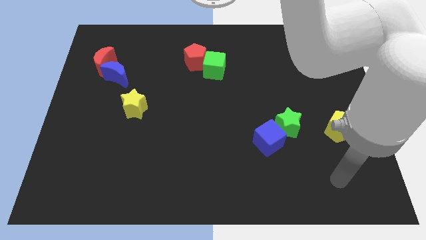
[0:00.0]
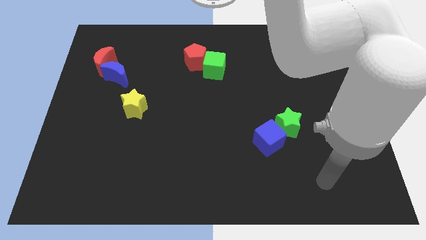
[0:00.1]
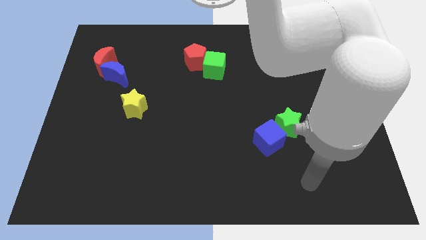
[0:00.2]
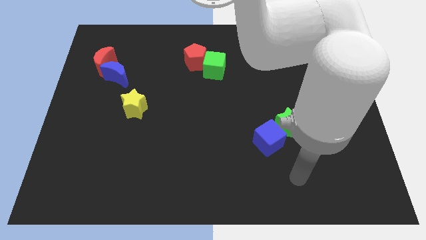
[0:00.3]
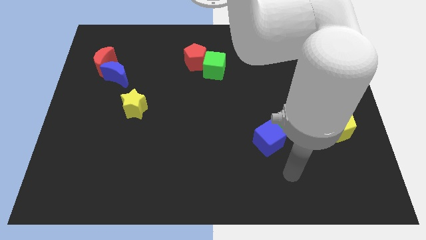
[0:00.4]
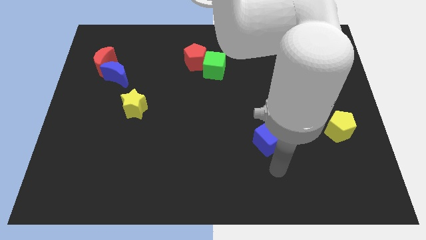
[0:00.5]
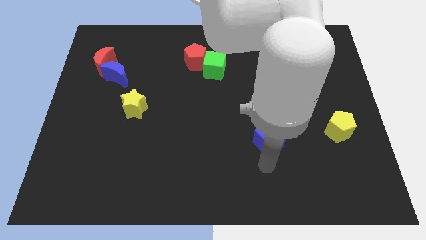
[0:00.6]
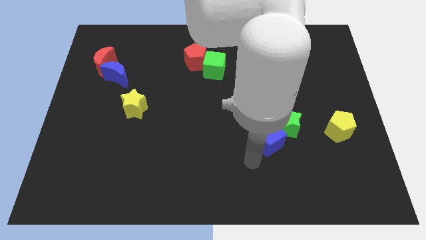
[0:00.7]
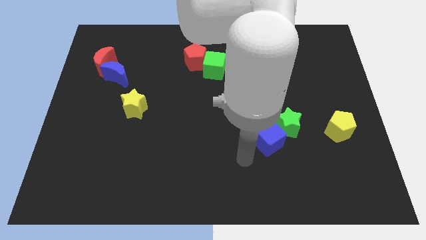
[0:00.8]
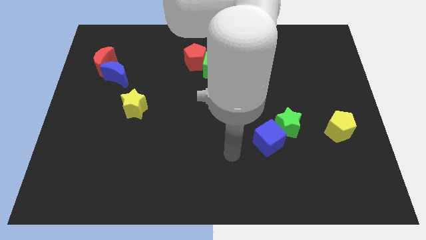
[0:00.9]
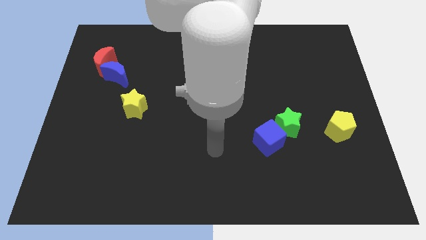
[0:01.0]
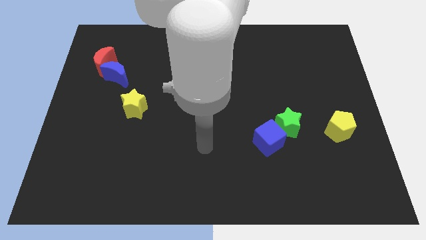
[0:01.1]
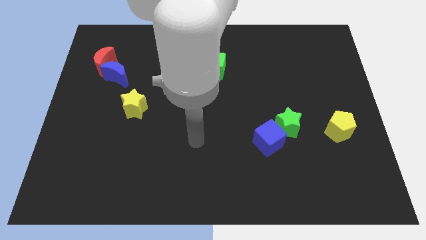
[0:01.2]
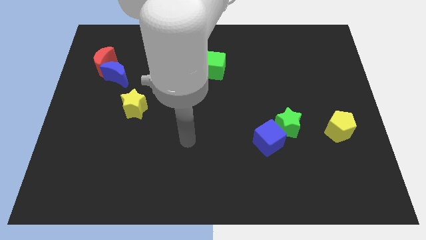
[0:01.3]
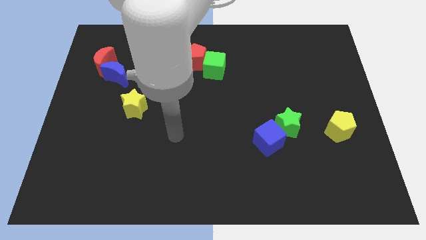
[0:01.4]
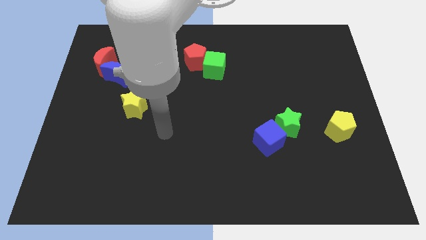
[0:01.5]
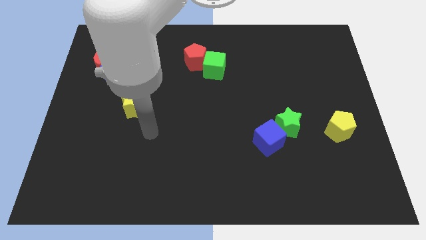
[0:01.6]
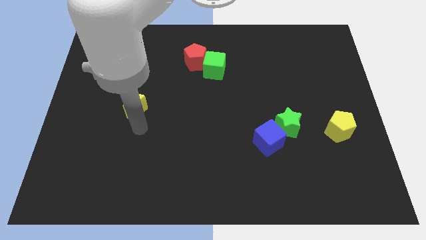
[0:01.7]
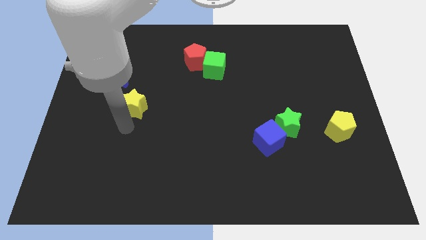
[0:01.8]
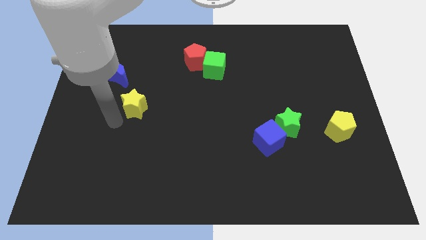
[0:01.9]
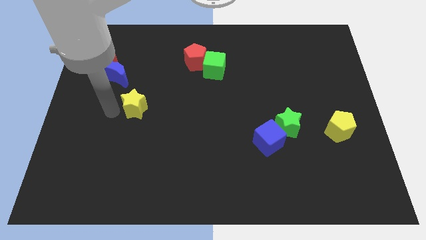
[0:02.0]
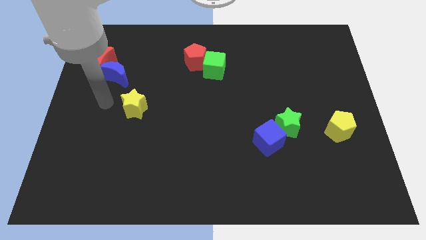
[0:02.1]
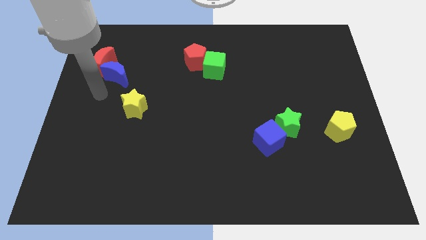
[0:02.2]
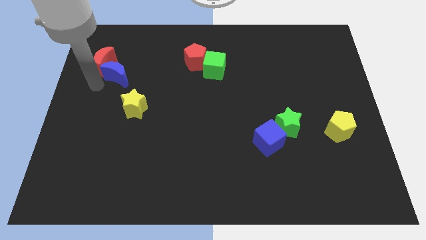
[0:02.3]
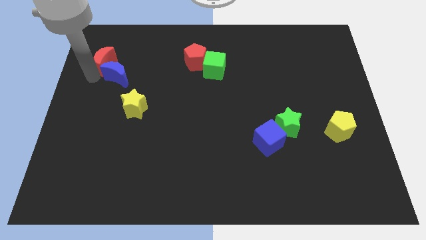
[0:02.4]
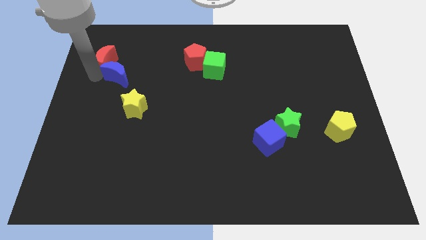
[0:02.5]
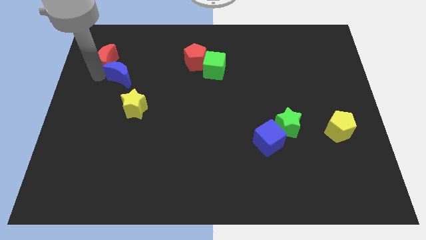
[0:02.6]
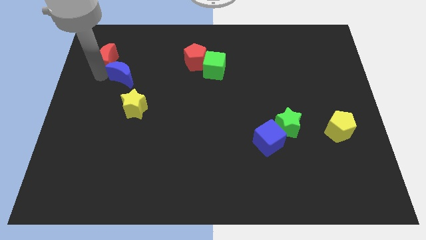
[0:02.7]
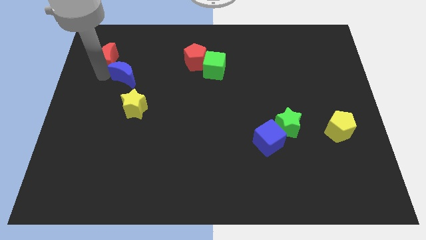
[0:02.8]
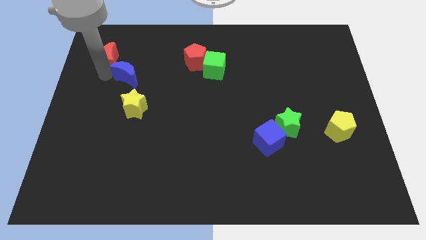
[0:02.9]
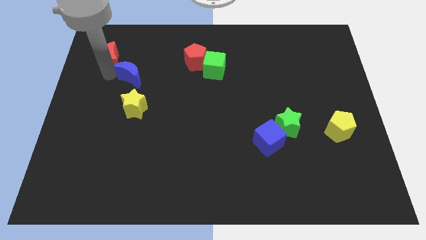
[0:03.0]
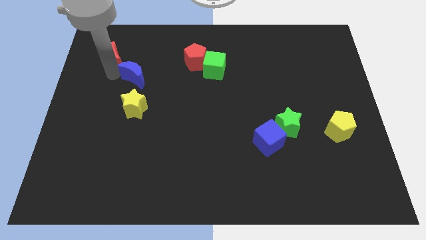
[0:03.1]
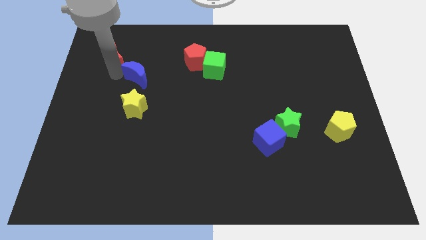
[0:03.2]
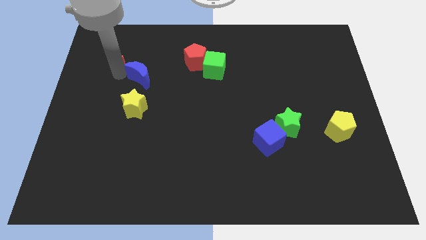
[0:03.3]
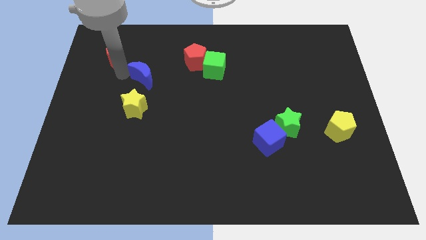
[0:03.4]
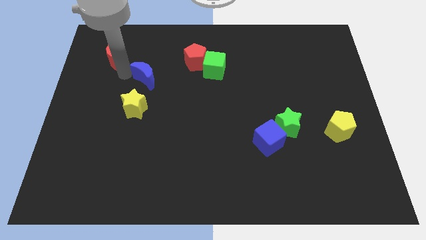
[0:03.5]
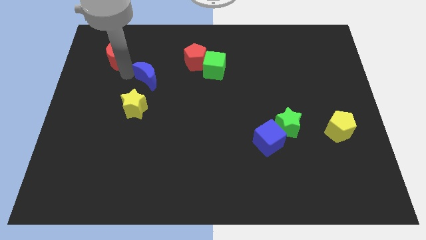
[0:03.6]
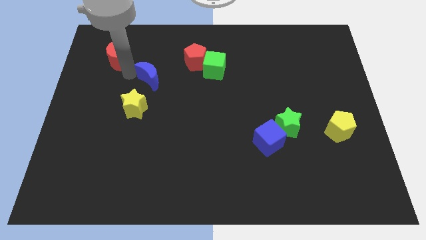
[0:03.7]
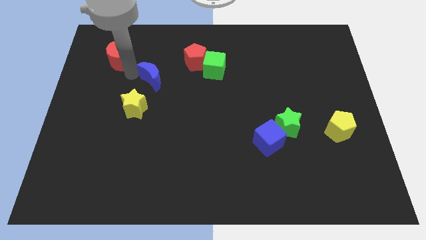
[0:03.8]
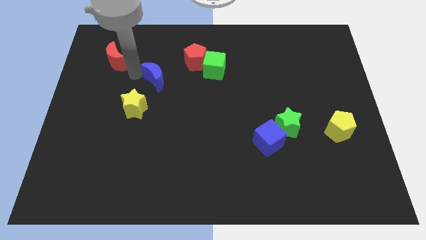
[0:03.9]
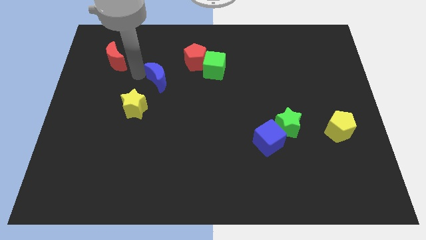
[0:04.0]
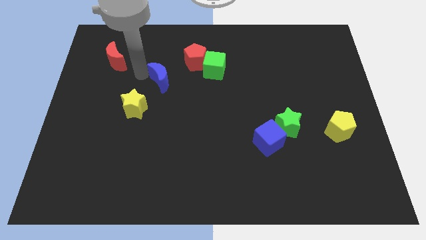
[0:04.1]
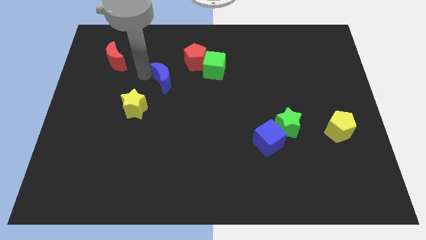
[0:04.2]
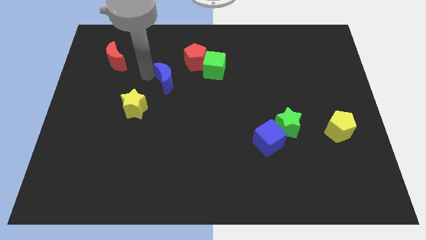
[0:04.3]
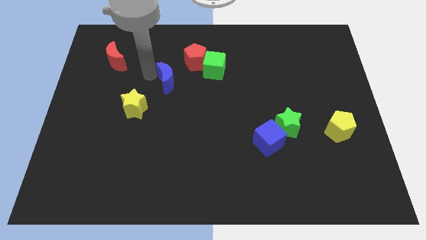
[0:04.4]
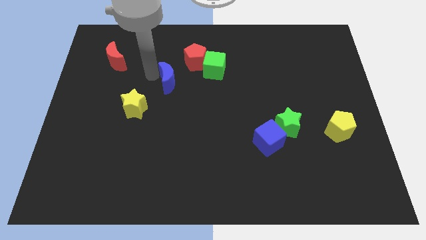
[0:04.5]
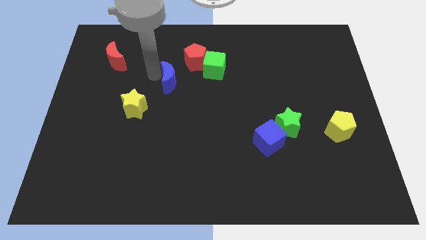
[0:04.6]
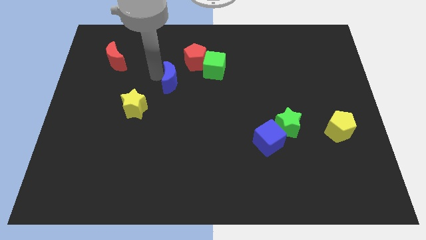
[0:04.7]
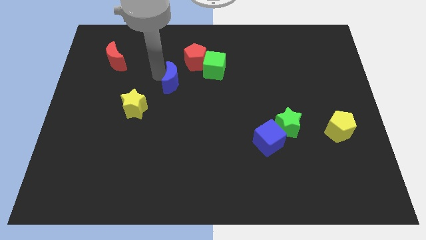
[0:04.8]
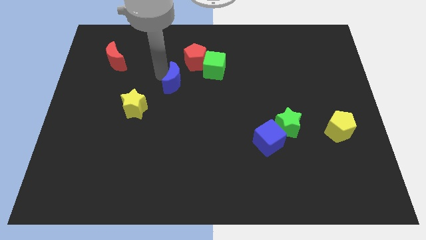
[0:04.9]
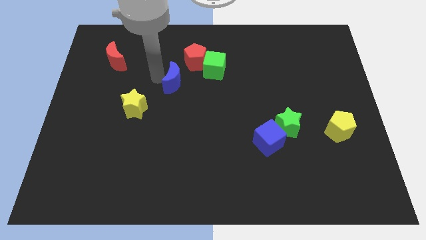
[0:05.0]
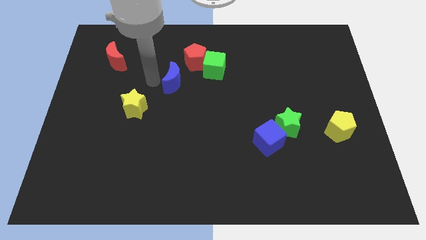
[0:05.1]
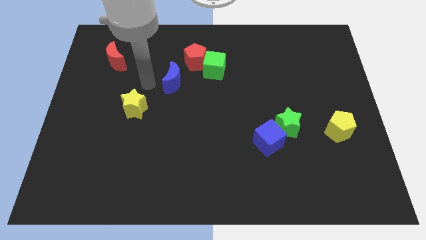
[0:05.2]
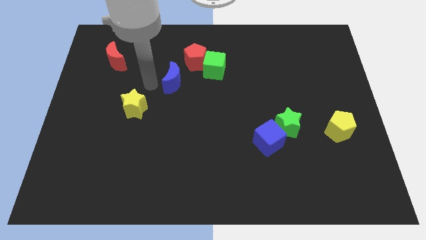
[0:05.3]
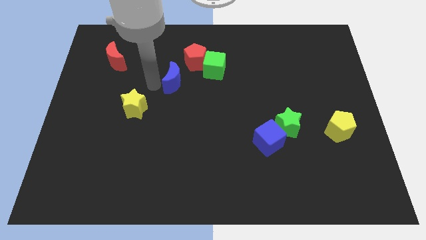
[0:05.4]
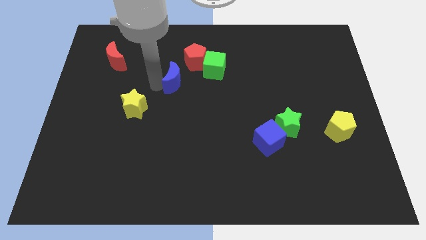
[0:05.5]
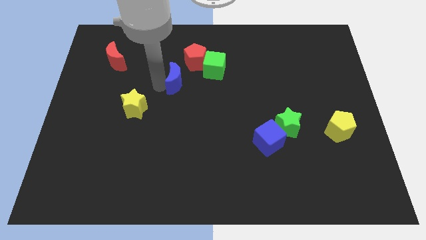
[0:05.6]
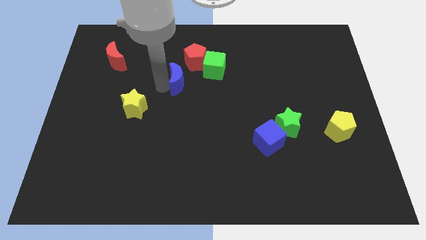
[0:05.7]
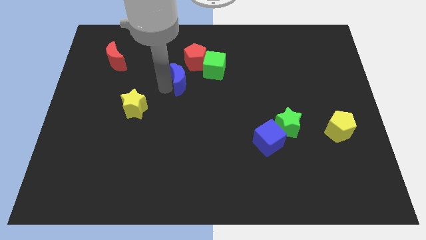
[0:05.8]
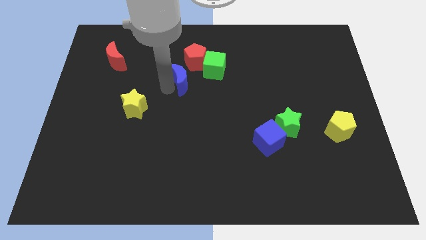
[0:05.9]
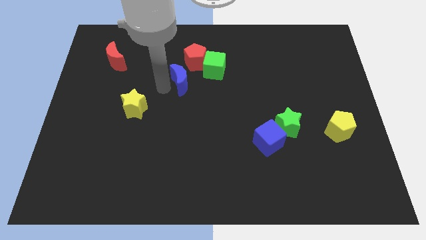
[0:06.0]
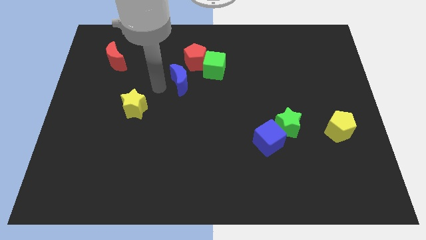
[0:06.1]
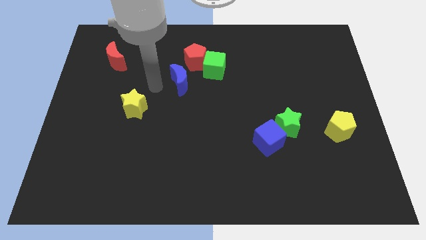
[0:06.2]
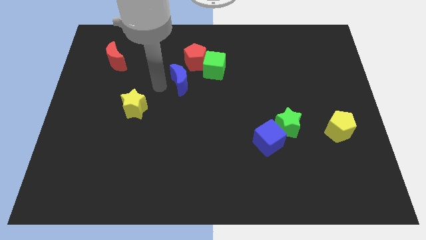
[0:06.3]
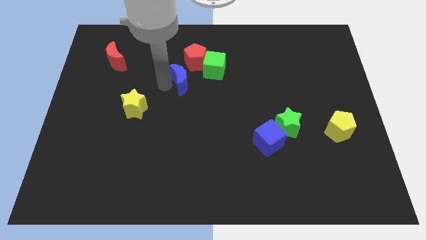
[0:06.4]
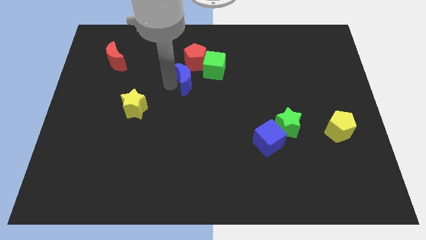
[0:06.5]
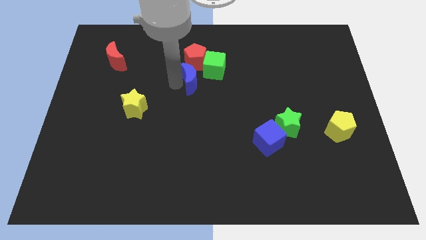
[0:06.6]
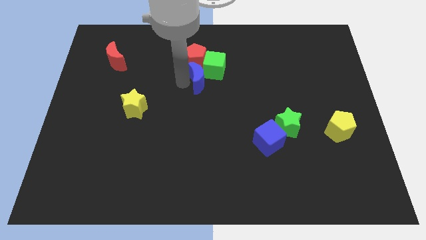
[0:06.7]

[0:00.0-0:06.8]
move the blue moon right

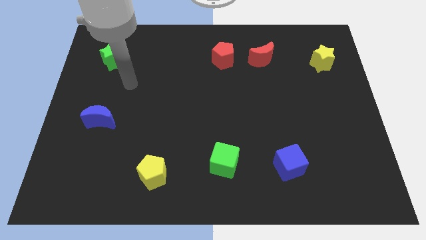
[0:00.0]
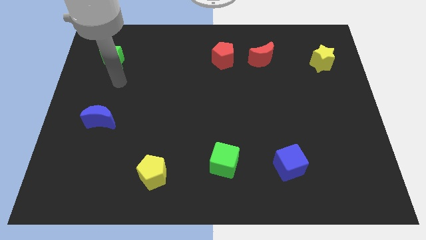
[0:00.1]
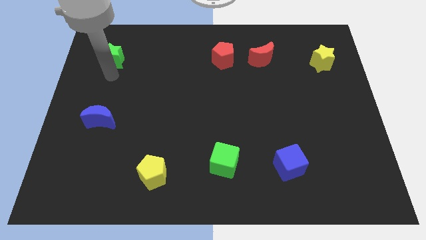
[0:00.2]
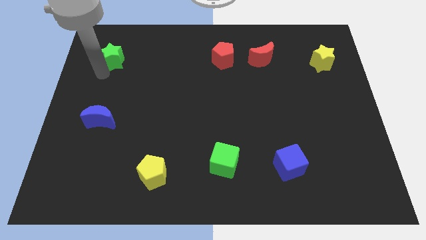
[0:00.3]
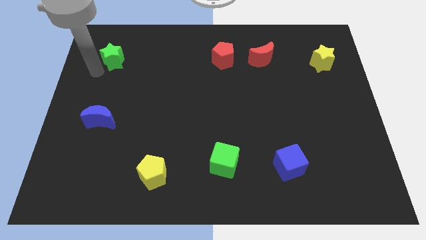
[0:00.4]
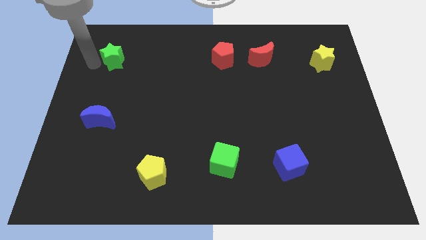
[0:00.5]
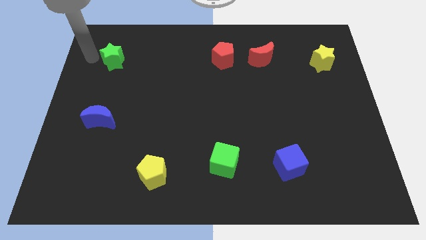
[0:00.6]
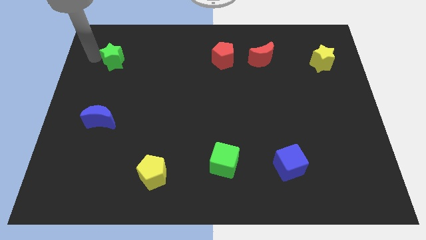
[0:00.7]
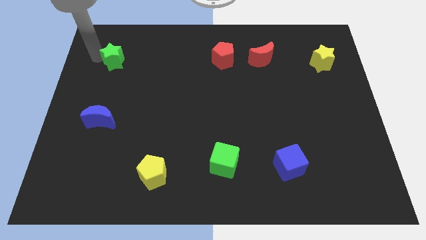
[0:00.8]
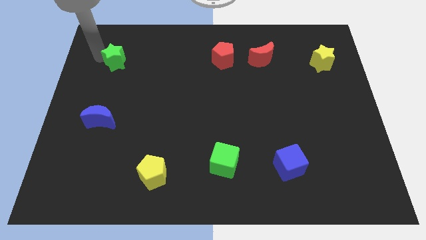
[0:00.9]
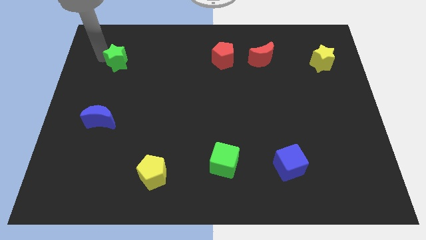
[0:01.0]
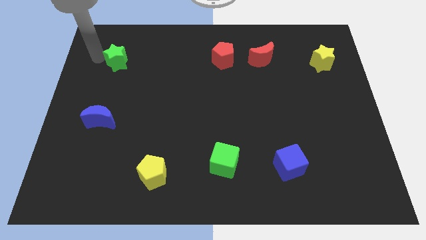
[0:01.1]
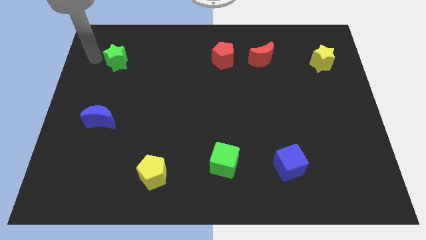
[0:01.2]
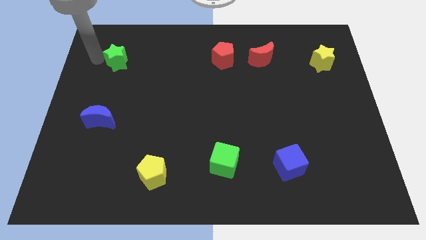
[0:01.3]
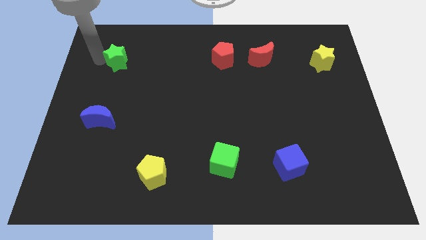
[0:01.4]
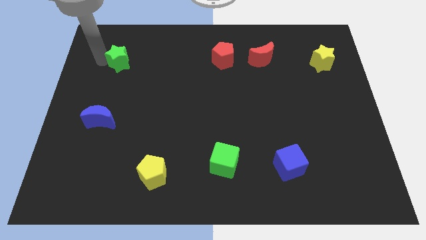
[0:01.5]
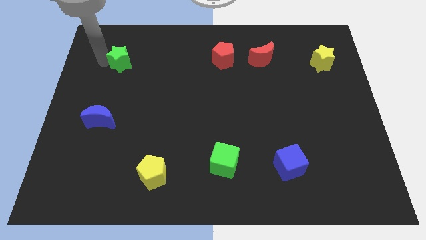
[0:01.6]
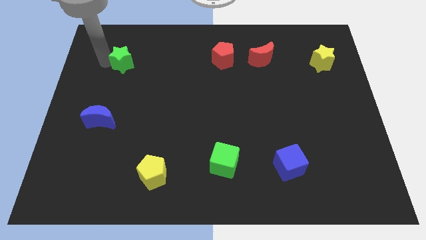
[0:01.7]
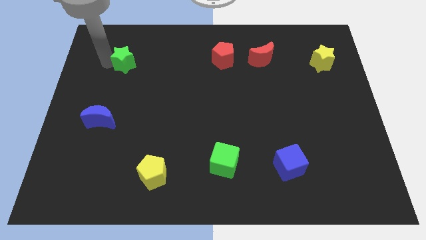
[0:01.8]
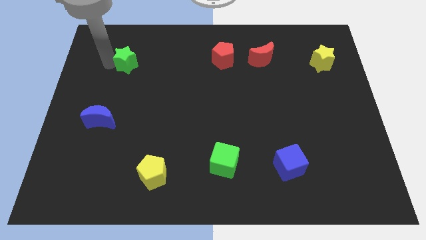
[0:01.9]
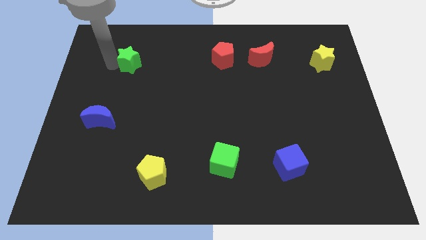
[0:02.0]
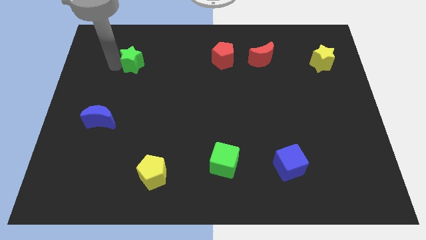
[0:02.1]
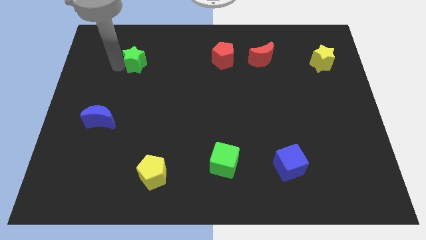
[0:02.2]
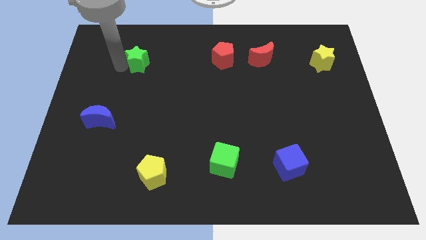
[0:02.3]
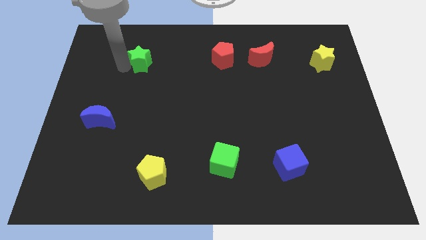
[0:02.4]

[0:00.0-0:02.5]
slightly push the green star to the right
